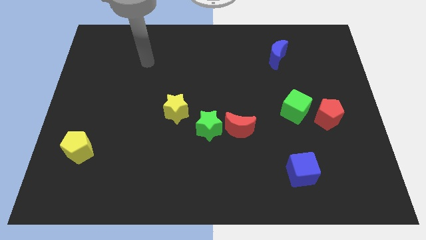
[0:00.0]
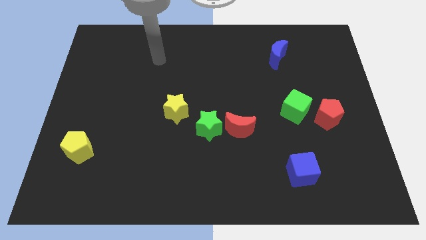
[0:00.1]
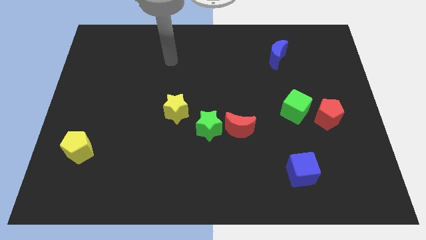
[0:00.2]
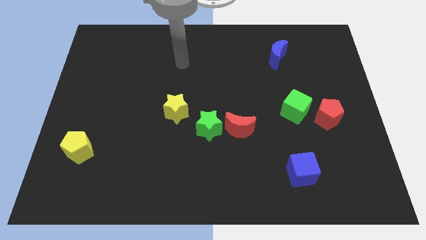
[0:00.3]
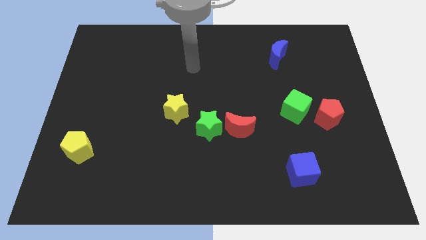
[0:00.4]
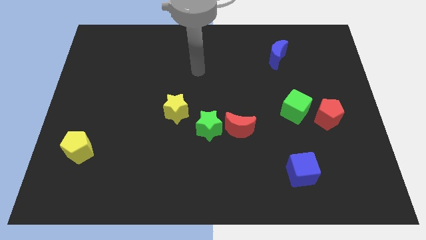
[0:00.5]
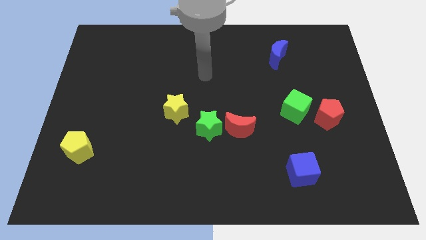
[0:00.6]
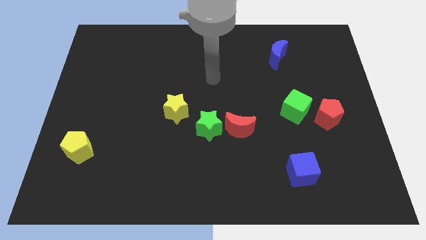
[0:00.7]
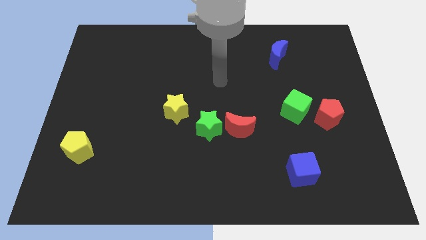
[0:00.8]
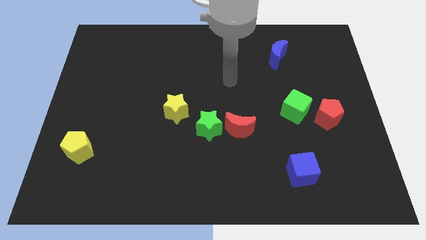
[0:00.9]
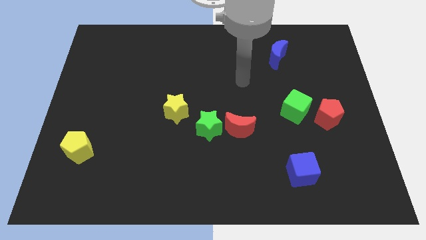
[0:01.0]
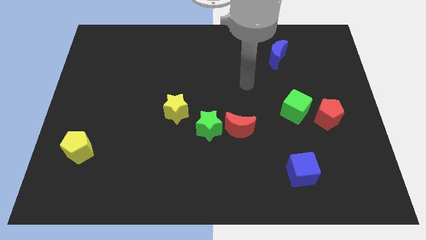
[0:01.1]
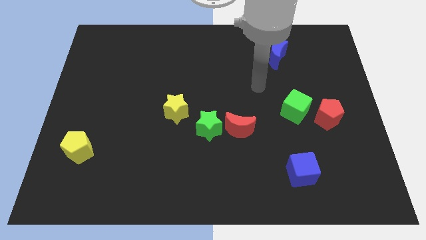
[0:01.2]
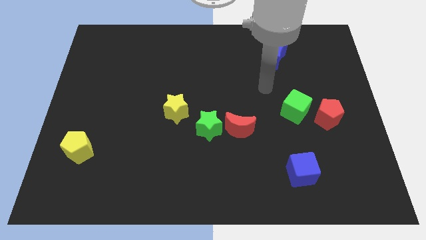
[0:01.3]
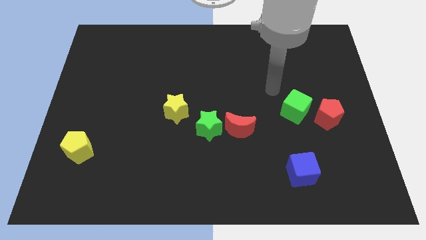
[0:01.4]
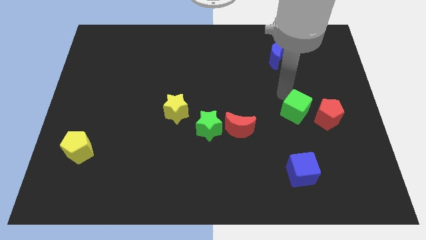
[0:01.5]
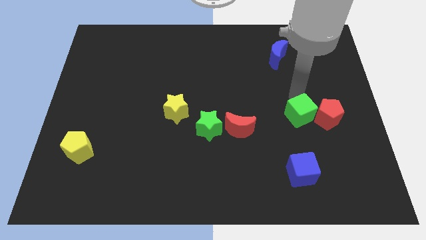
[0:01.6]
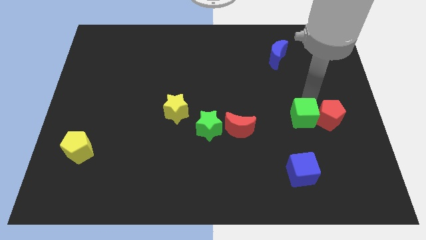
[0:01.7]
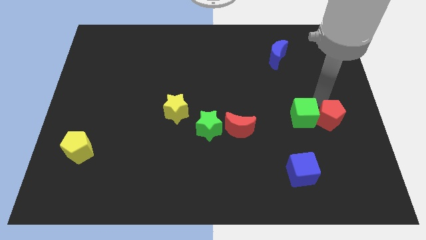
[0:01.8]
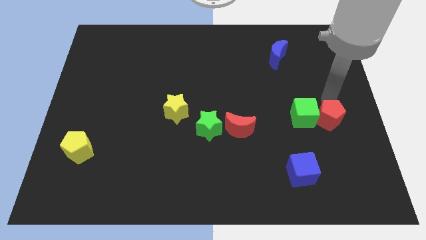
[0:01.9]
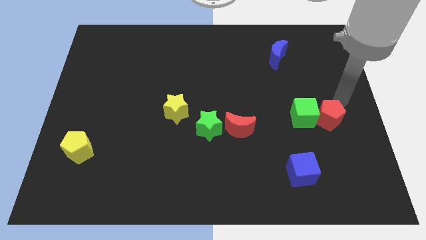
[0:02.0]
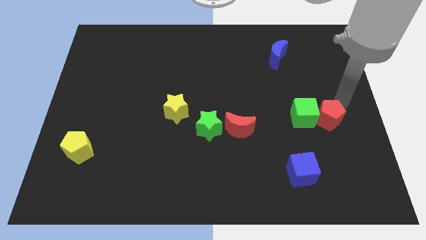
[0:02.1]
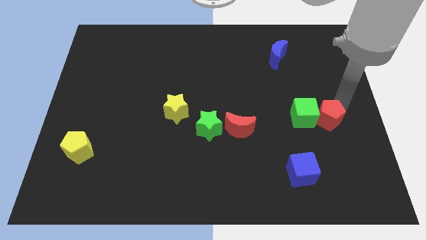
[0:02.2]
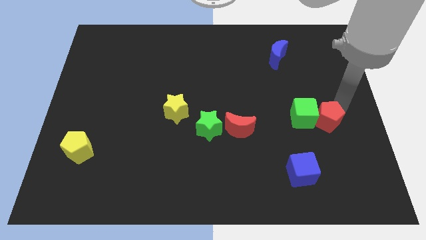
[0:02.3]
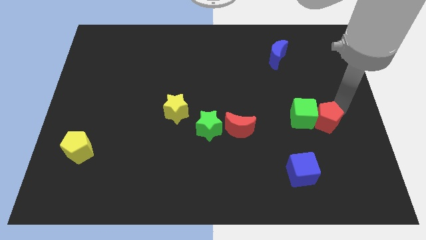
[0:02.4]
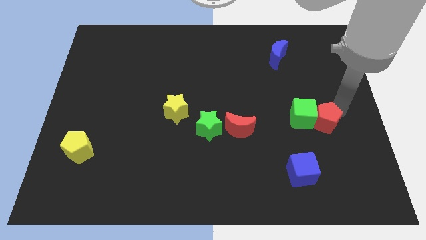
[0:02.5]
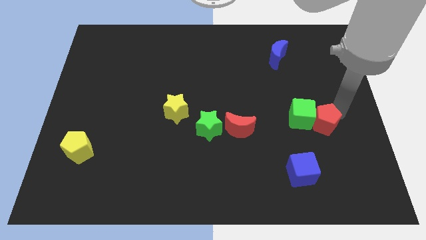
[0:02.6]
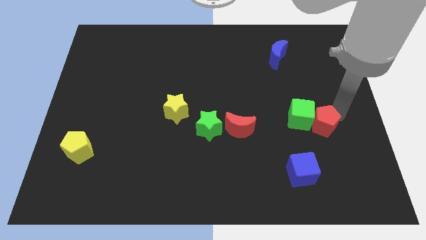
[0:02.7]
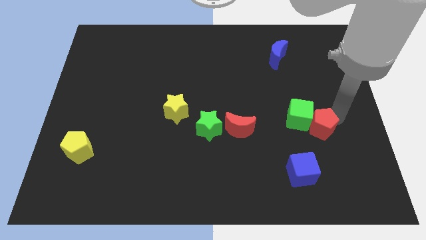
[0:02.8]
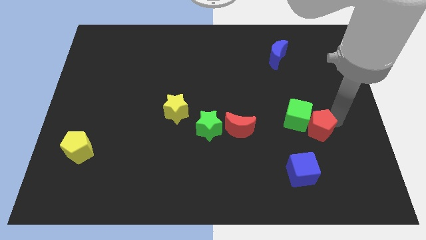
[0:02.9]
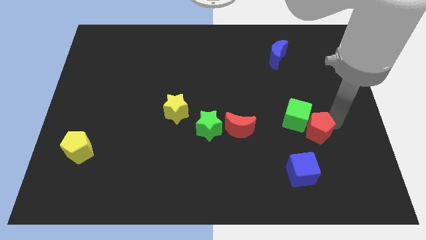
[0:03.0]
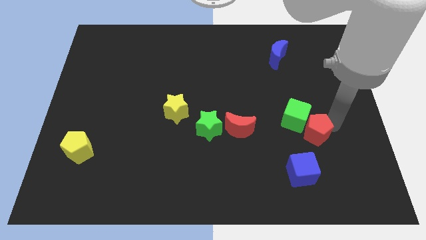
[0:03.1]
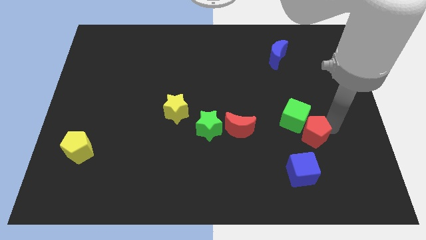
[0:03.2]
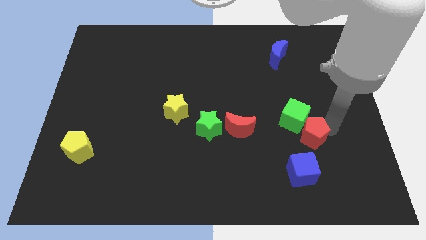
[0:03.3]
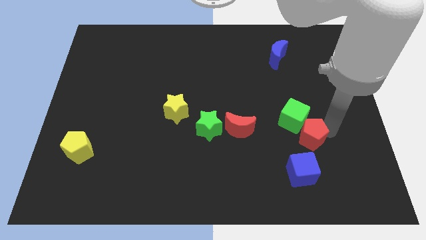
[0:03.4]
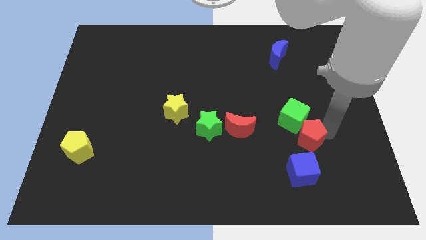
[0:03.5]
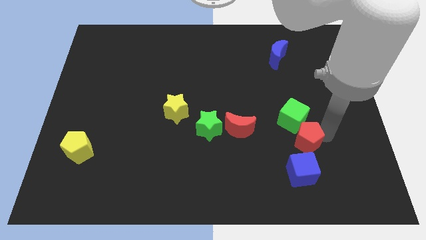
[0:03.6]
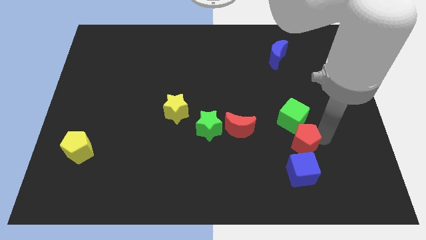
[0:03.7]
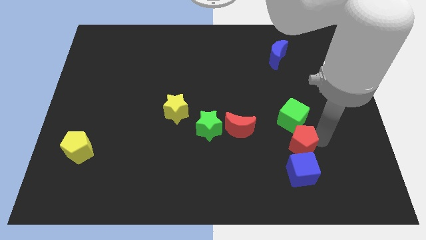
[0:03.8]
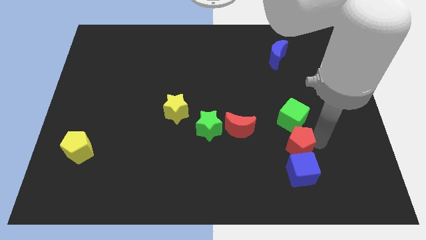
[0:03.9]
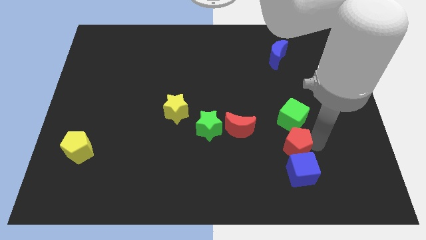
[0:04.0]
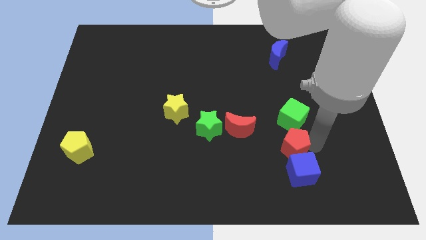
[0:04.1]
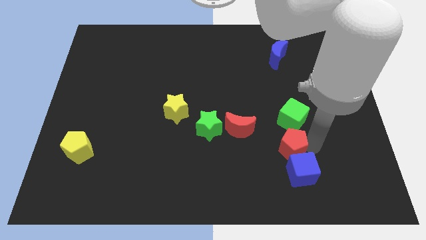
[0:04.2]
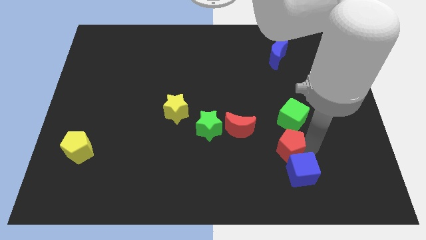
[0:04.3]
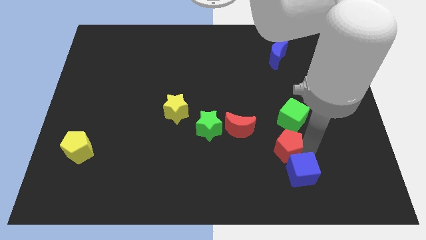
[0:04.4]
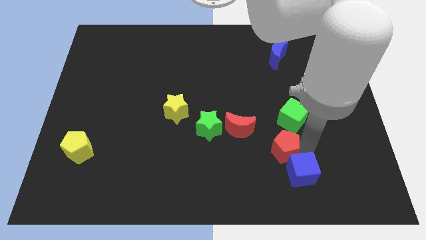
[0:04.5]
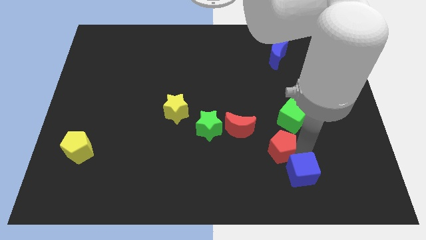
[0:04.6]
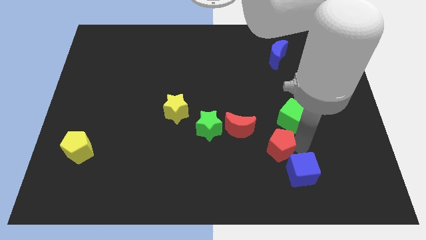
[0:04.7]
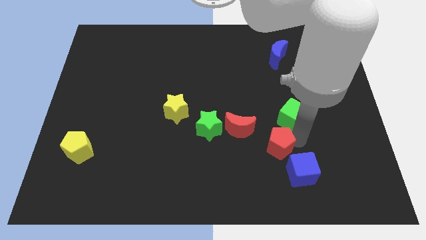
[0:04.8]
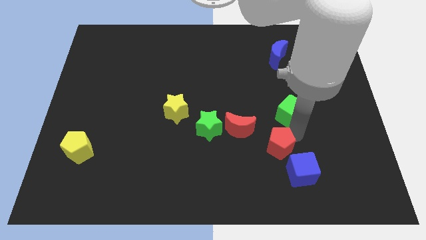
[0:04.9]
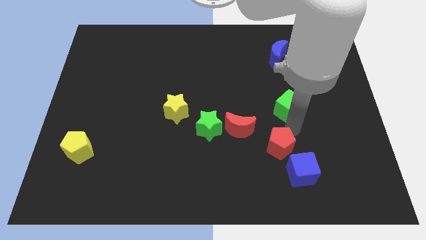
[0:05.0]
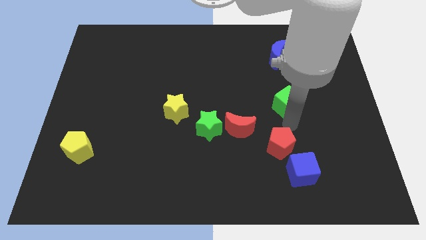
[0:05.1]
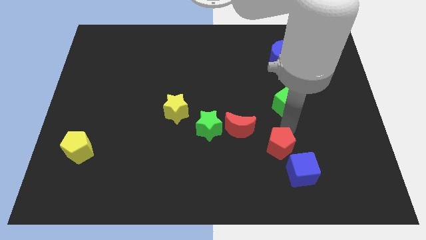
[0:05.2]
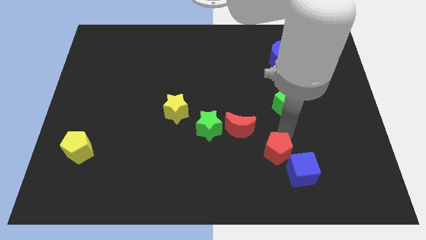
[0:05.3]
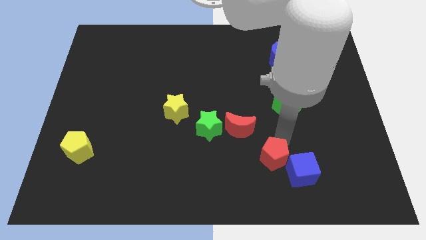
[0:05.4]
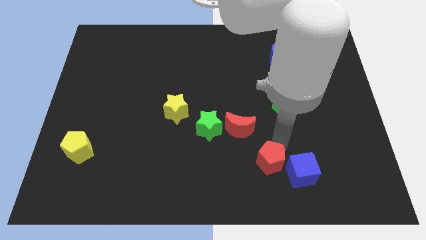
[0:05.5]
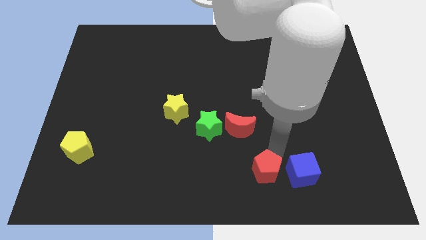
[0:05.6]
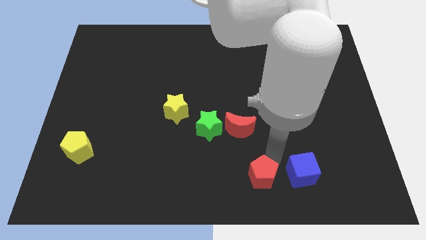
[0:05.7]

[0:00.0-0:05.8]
slide the red pentagon to the bottom

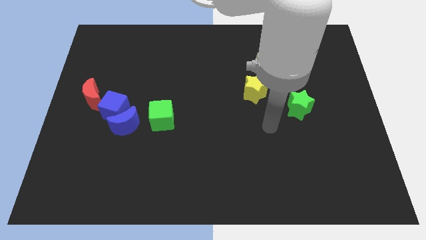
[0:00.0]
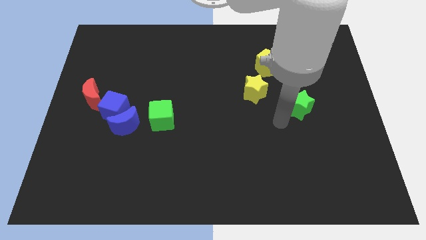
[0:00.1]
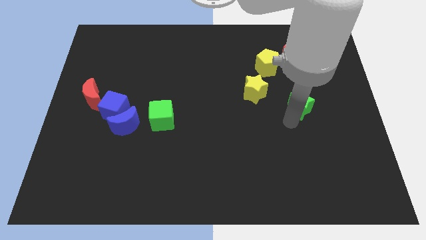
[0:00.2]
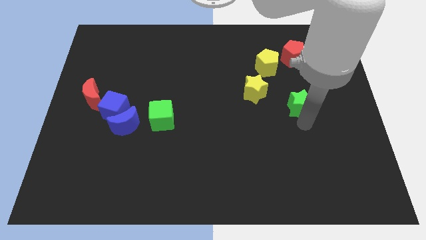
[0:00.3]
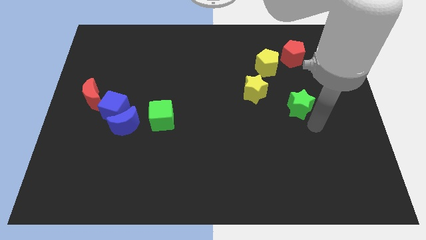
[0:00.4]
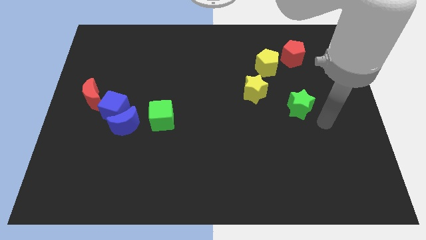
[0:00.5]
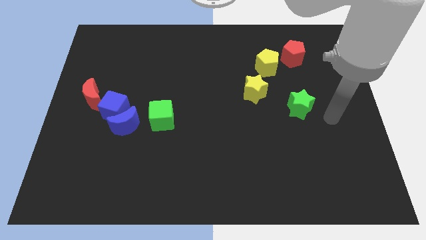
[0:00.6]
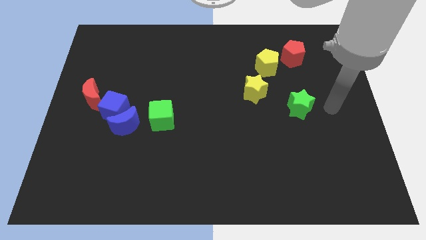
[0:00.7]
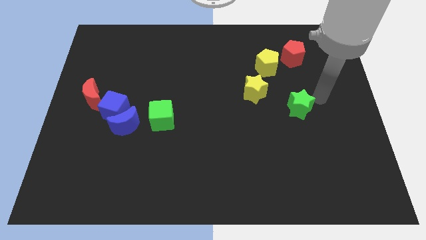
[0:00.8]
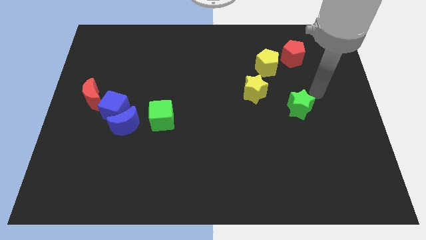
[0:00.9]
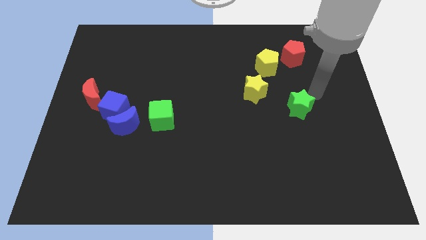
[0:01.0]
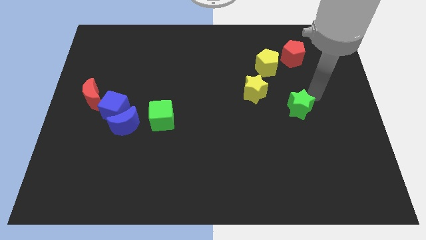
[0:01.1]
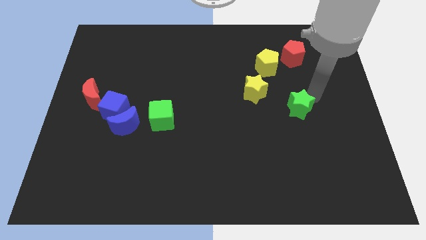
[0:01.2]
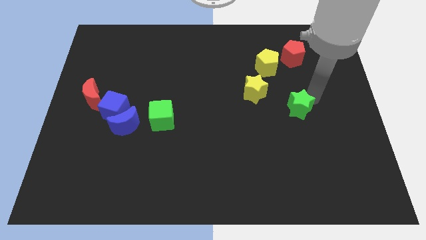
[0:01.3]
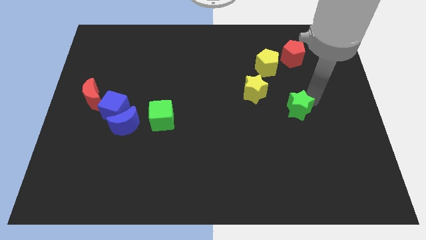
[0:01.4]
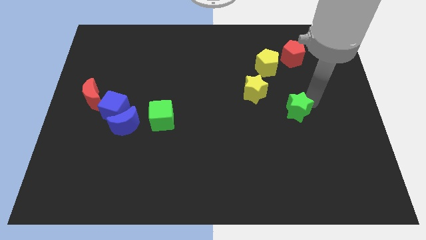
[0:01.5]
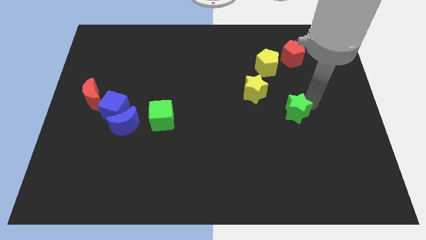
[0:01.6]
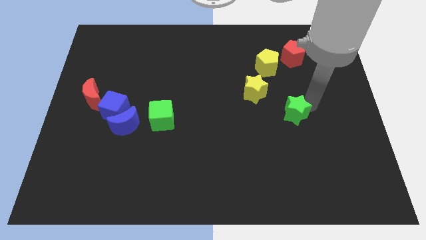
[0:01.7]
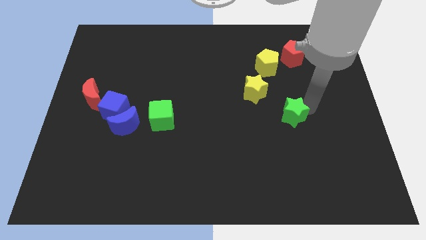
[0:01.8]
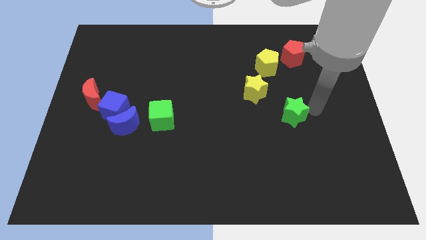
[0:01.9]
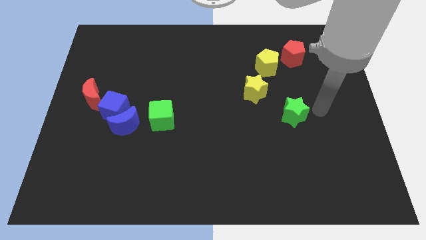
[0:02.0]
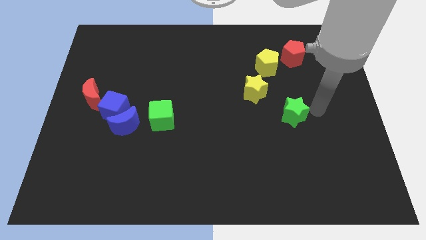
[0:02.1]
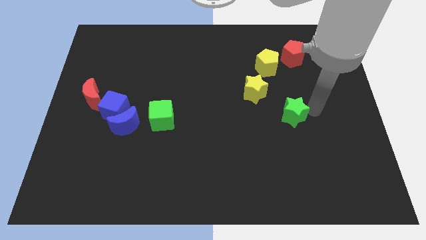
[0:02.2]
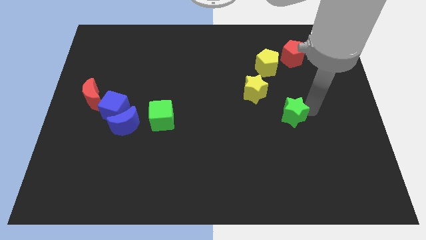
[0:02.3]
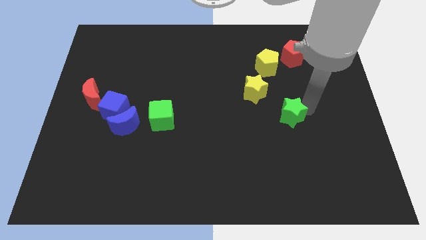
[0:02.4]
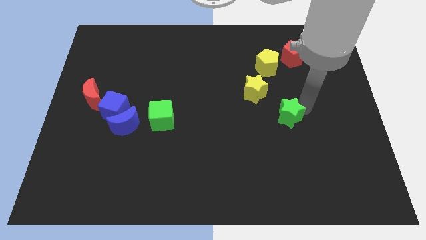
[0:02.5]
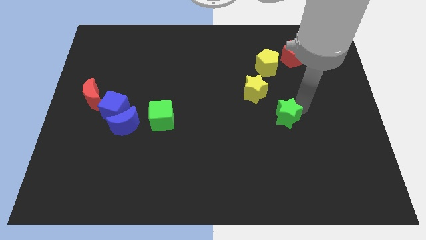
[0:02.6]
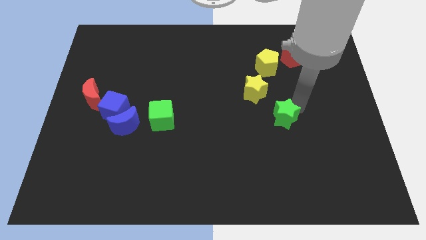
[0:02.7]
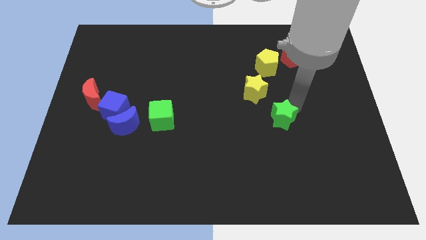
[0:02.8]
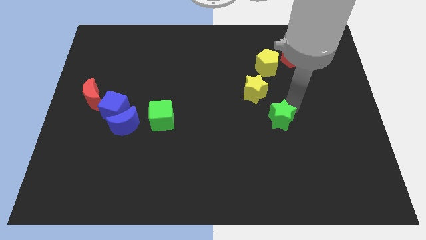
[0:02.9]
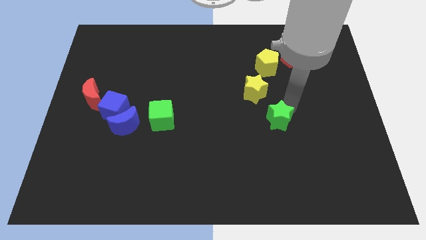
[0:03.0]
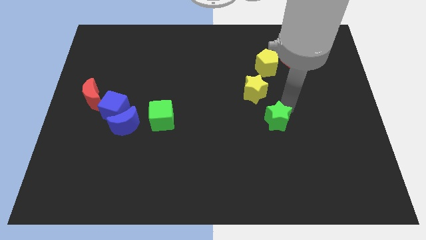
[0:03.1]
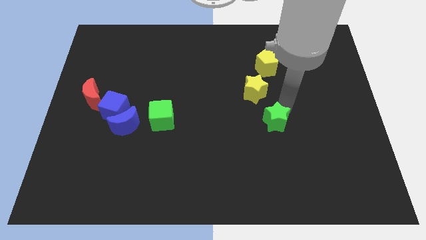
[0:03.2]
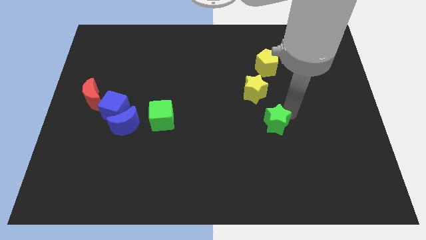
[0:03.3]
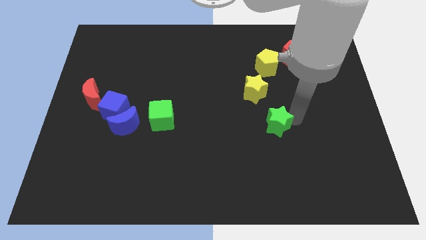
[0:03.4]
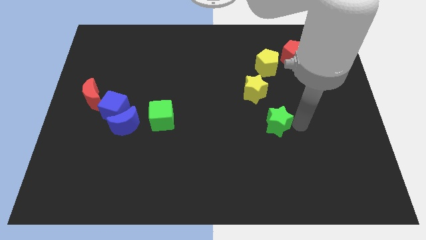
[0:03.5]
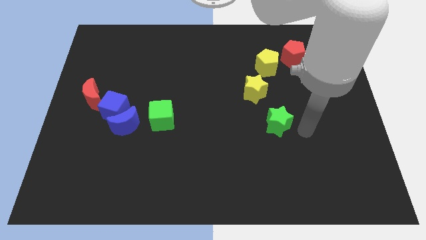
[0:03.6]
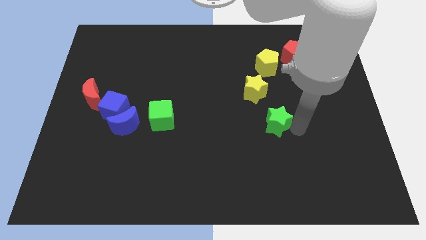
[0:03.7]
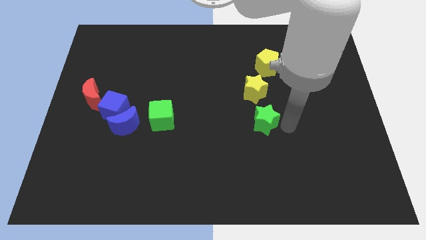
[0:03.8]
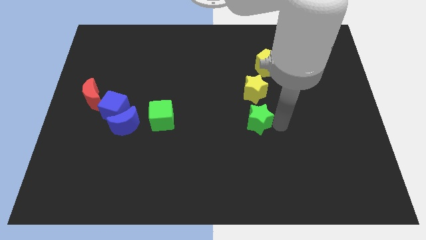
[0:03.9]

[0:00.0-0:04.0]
push the green star to the middle
